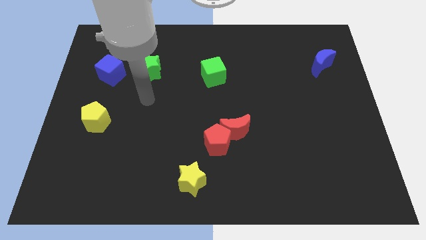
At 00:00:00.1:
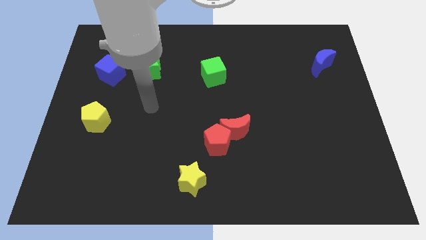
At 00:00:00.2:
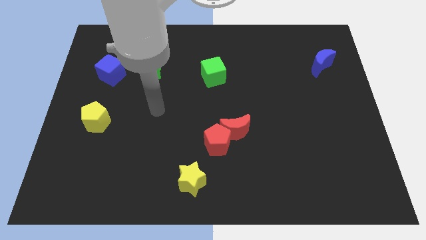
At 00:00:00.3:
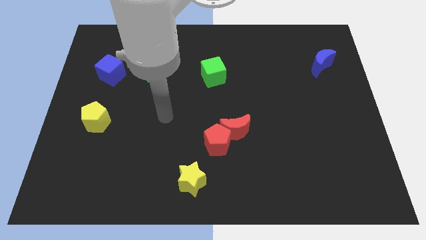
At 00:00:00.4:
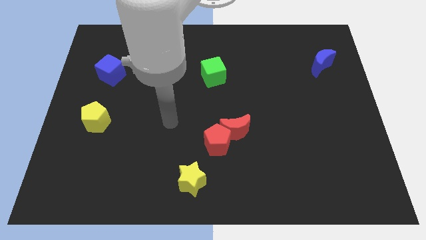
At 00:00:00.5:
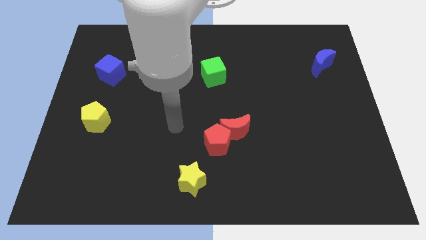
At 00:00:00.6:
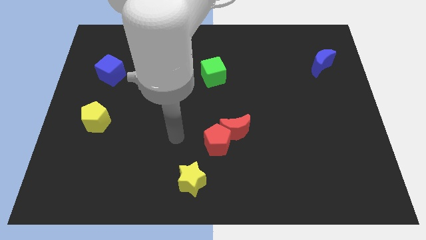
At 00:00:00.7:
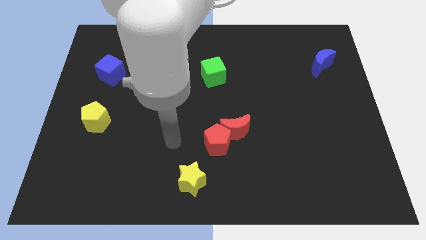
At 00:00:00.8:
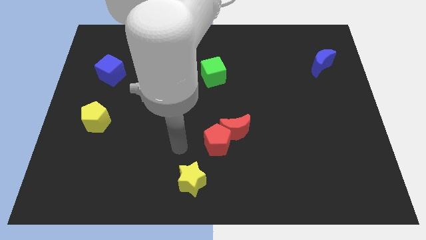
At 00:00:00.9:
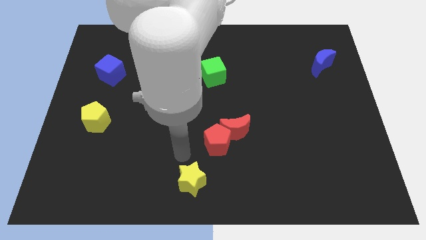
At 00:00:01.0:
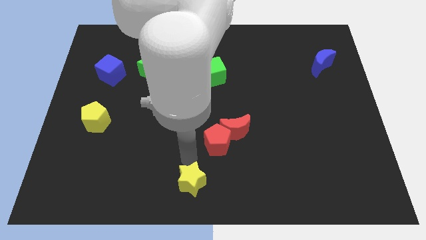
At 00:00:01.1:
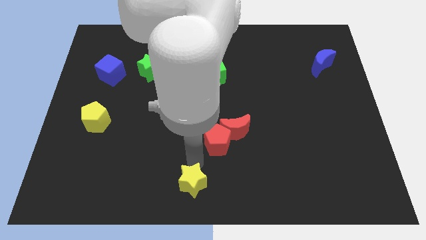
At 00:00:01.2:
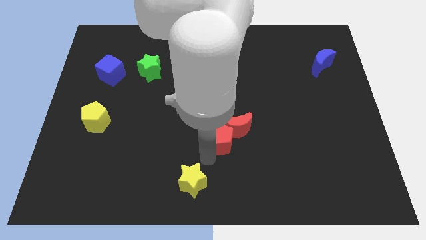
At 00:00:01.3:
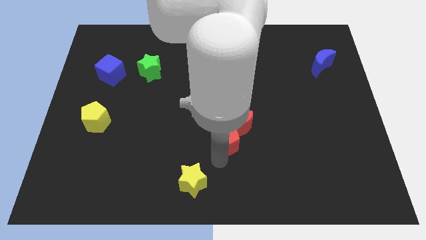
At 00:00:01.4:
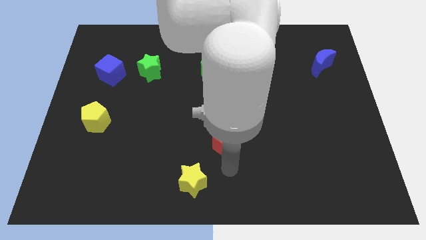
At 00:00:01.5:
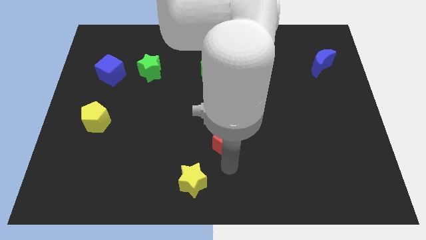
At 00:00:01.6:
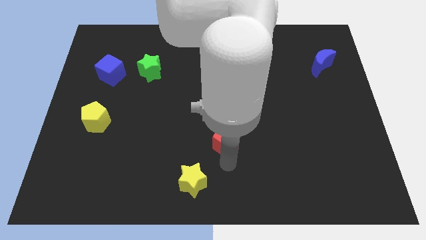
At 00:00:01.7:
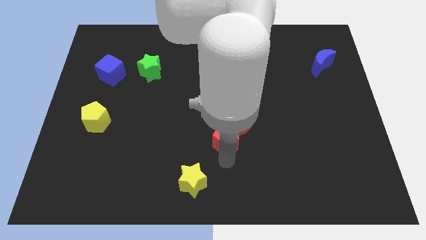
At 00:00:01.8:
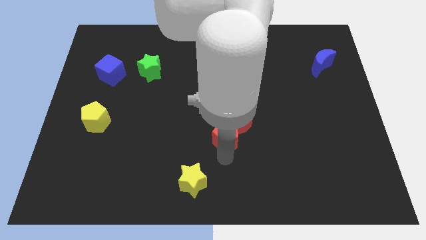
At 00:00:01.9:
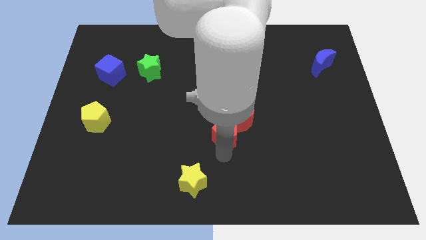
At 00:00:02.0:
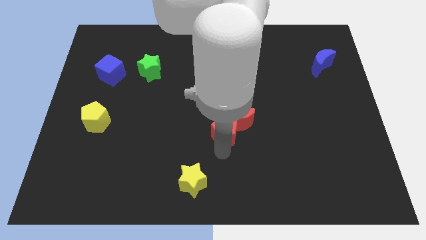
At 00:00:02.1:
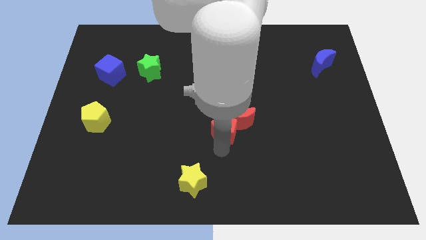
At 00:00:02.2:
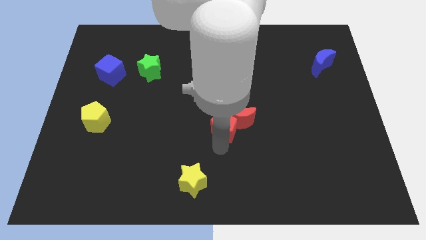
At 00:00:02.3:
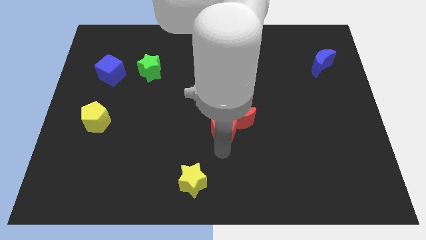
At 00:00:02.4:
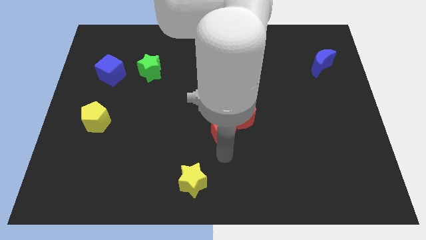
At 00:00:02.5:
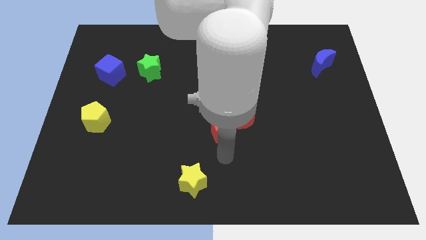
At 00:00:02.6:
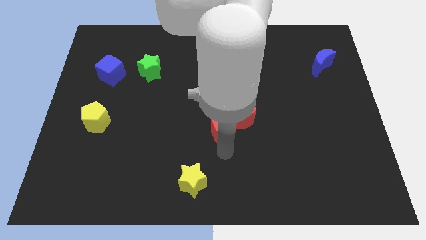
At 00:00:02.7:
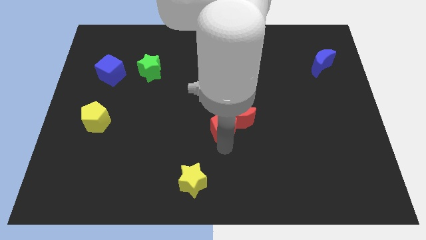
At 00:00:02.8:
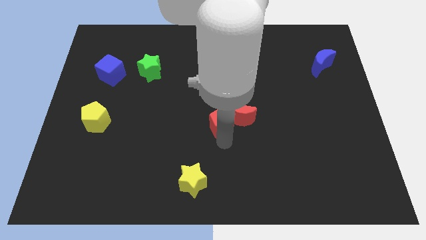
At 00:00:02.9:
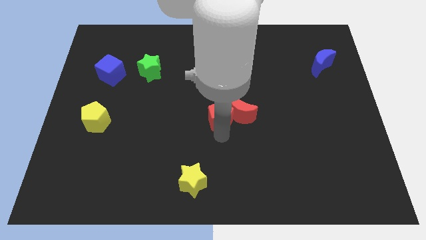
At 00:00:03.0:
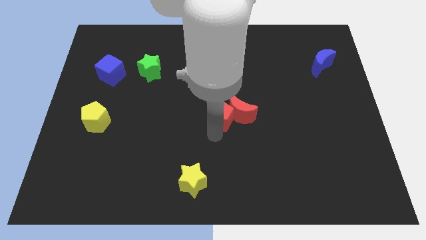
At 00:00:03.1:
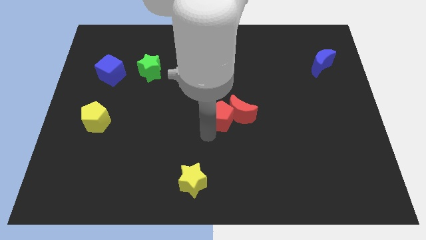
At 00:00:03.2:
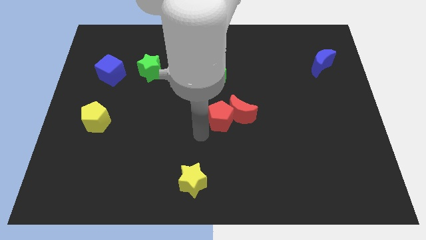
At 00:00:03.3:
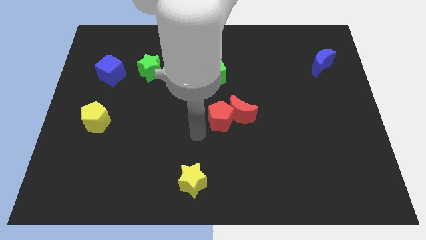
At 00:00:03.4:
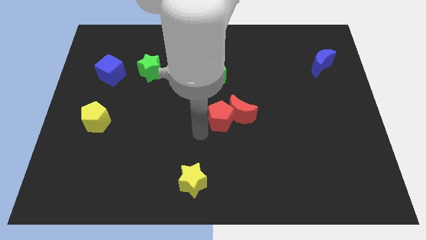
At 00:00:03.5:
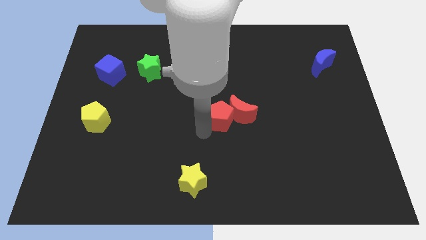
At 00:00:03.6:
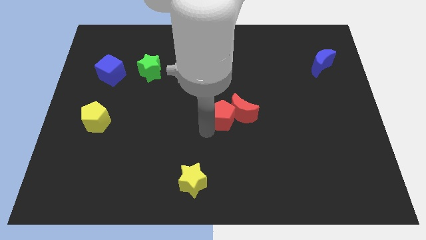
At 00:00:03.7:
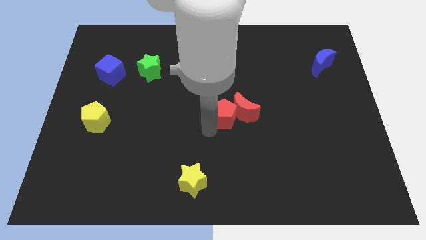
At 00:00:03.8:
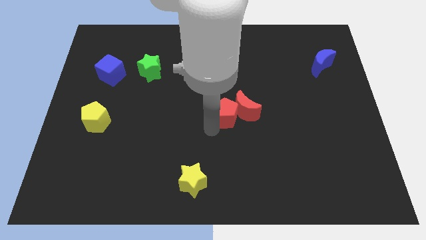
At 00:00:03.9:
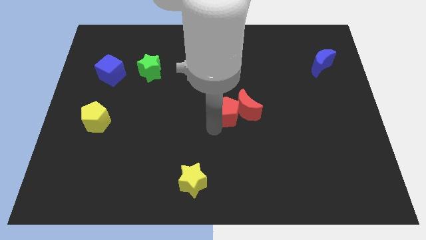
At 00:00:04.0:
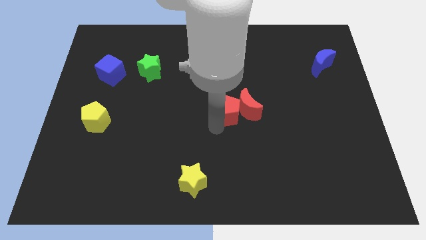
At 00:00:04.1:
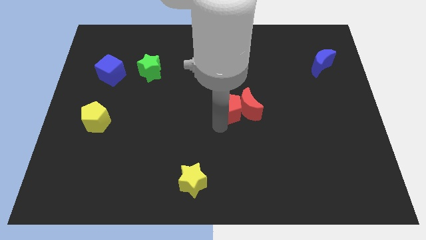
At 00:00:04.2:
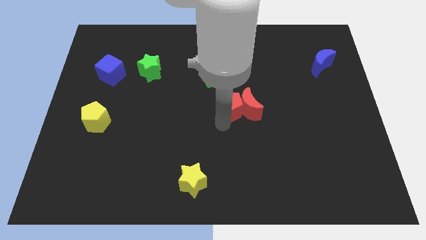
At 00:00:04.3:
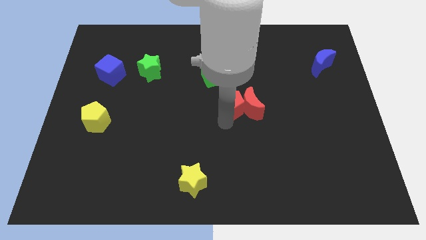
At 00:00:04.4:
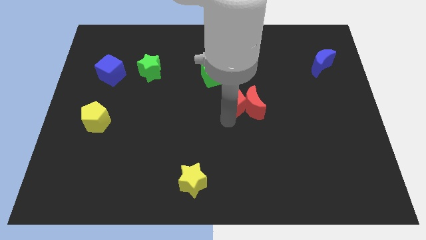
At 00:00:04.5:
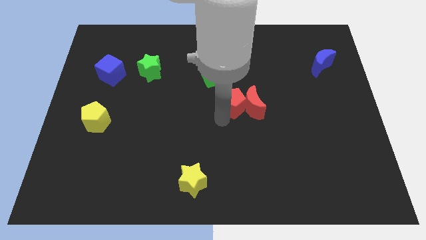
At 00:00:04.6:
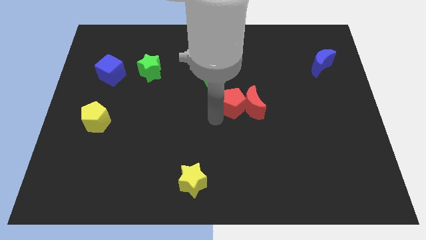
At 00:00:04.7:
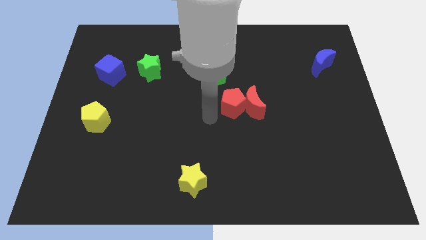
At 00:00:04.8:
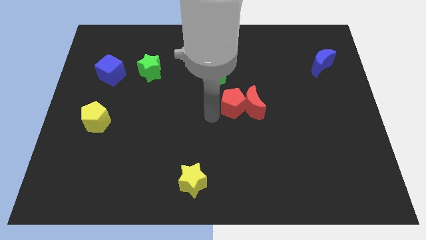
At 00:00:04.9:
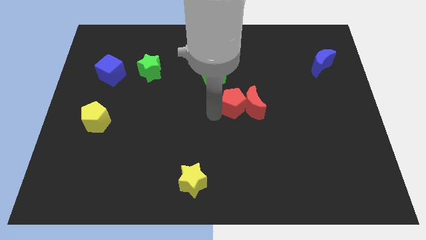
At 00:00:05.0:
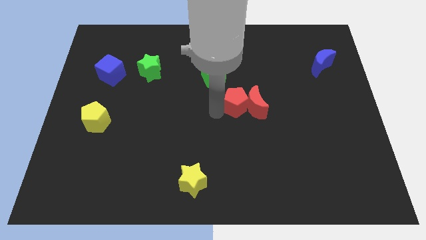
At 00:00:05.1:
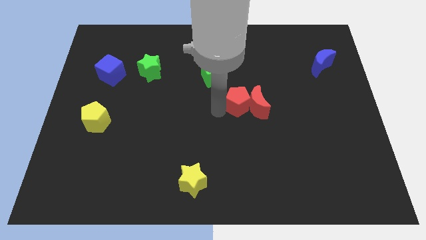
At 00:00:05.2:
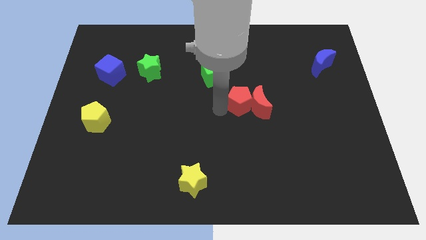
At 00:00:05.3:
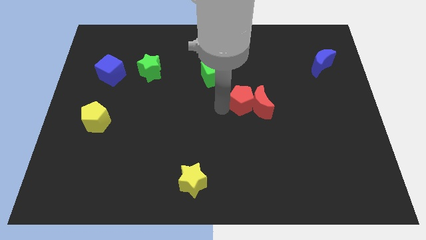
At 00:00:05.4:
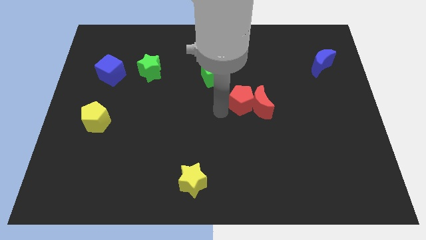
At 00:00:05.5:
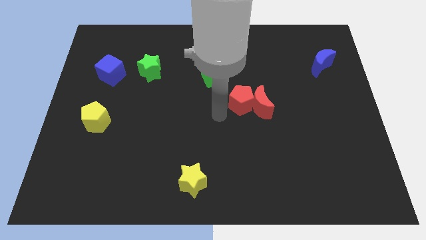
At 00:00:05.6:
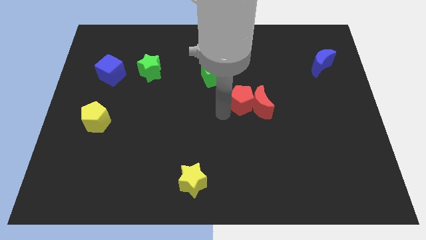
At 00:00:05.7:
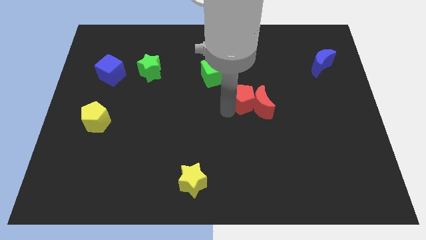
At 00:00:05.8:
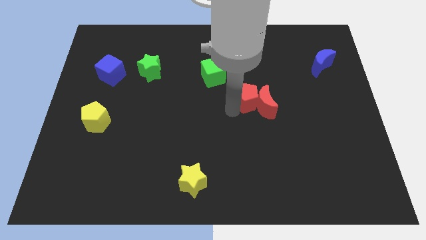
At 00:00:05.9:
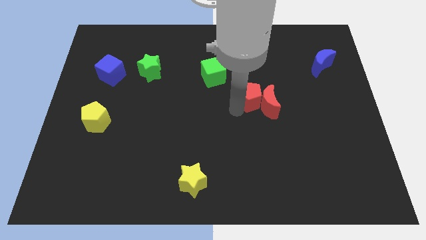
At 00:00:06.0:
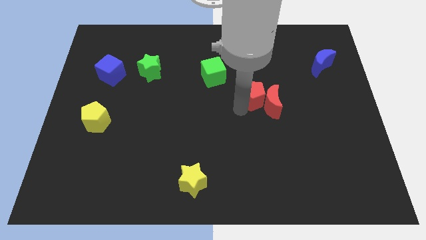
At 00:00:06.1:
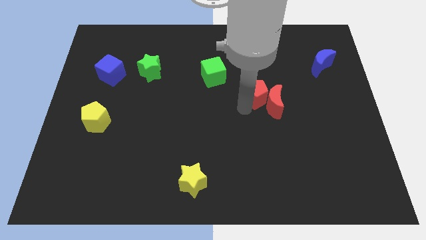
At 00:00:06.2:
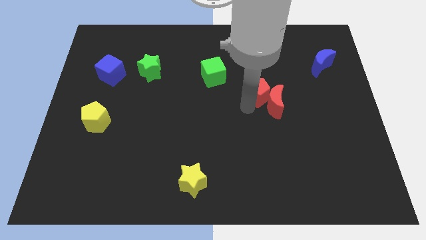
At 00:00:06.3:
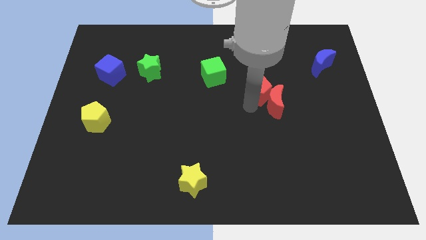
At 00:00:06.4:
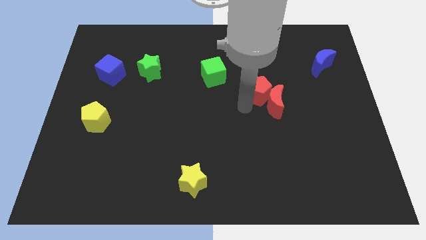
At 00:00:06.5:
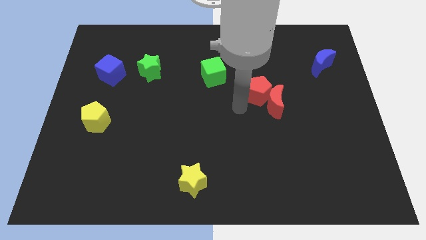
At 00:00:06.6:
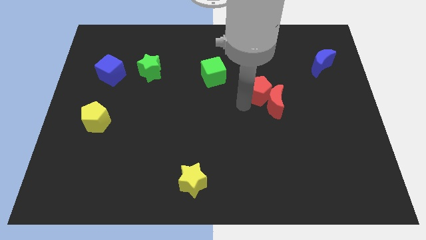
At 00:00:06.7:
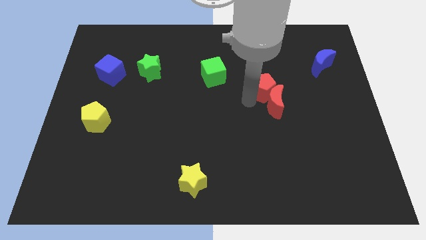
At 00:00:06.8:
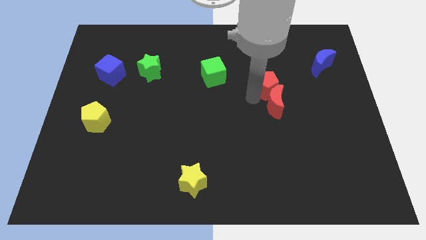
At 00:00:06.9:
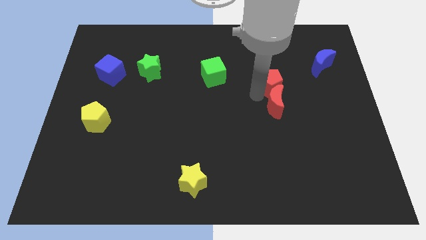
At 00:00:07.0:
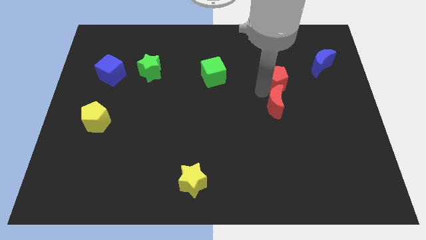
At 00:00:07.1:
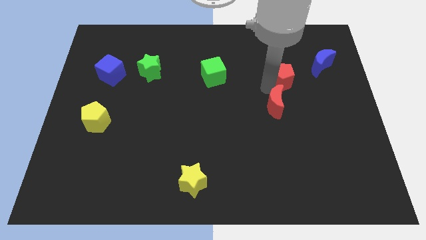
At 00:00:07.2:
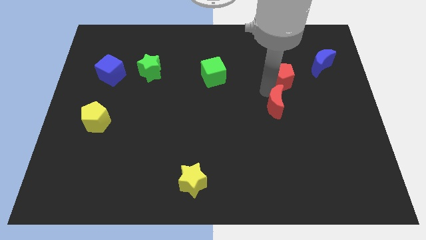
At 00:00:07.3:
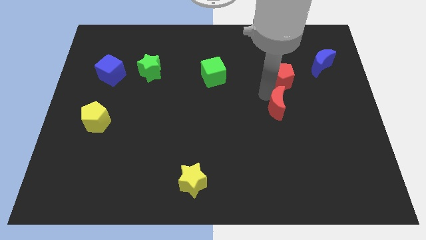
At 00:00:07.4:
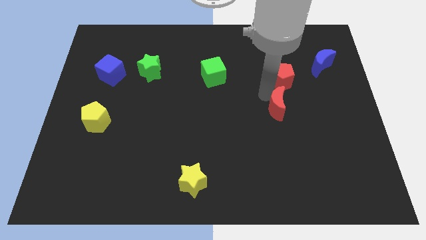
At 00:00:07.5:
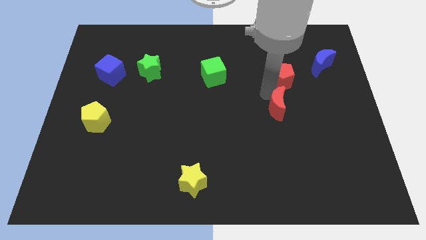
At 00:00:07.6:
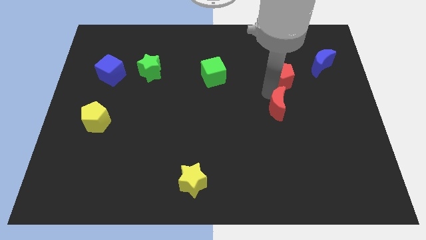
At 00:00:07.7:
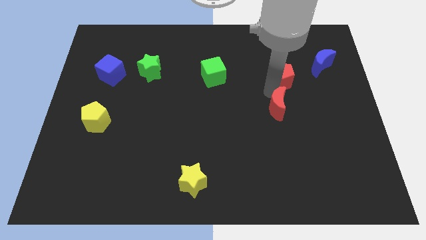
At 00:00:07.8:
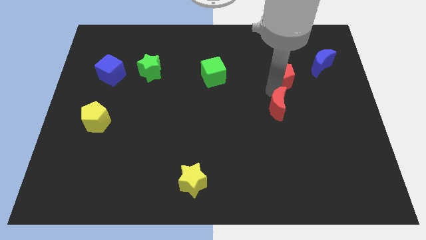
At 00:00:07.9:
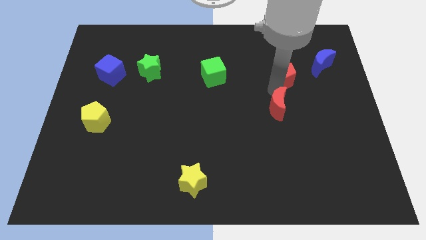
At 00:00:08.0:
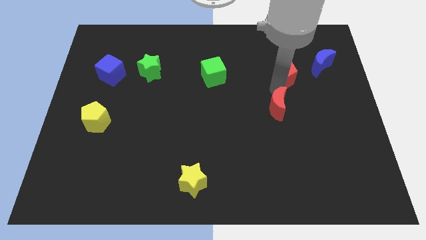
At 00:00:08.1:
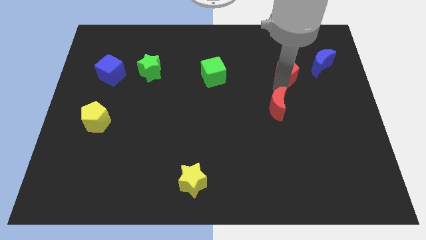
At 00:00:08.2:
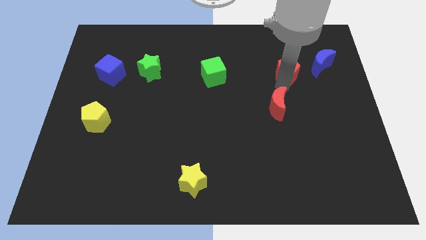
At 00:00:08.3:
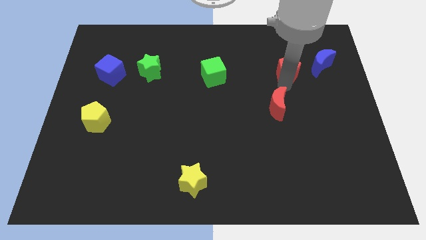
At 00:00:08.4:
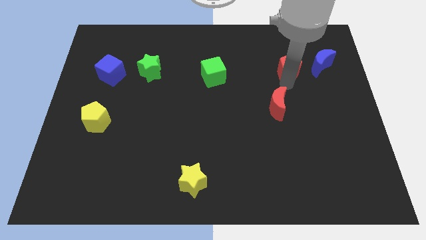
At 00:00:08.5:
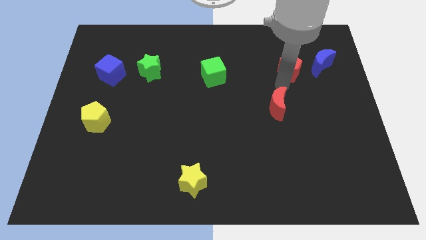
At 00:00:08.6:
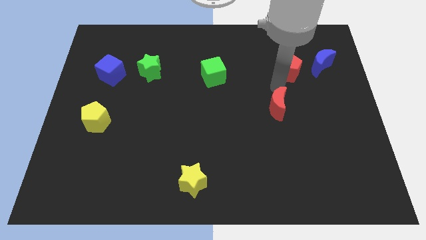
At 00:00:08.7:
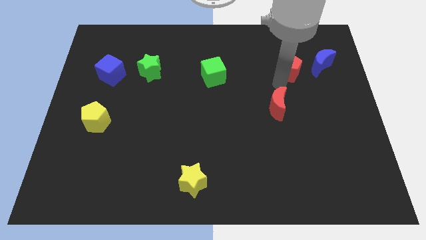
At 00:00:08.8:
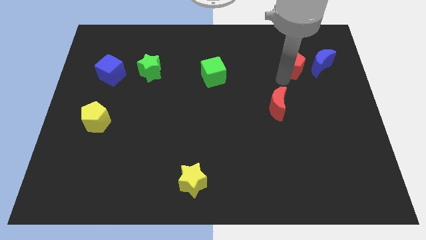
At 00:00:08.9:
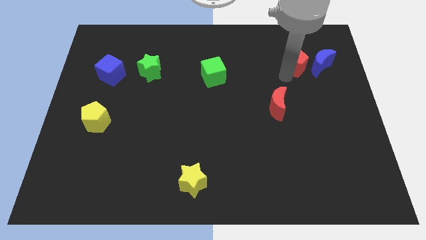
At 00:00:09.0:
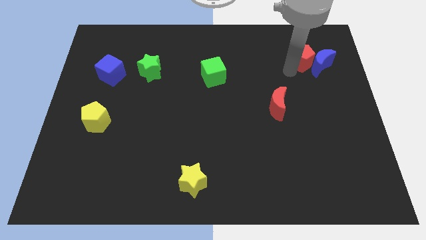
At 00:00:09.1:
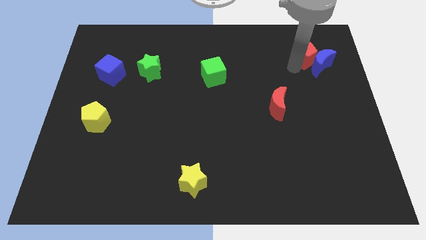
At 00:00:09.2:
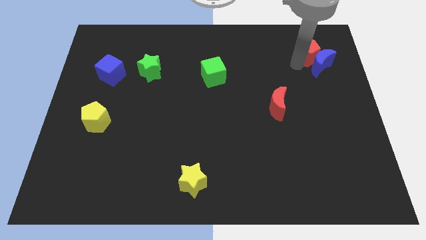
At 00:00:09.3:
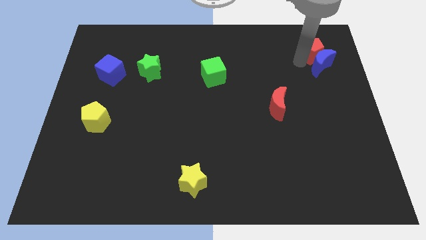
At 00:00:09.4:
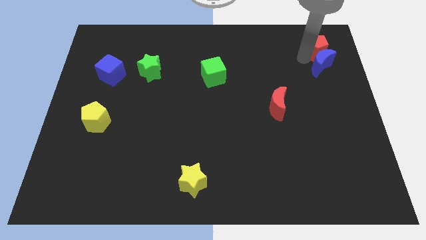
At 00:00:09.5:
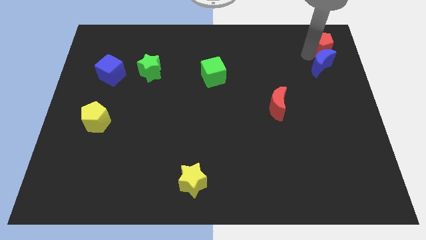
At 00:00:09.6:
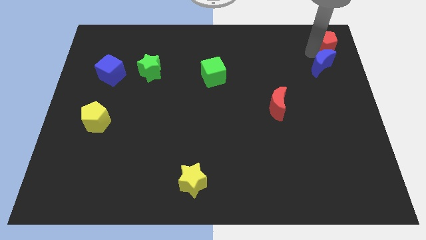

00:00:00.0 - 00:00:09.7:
push the red pentagon to the top right
